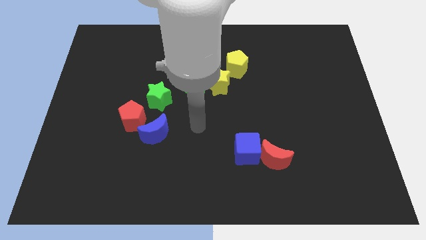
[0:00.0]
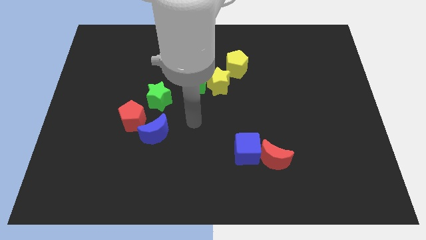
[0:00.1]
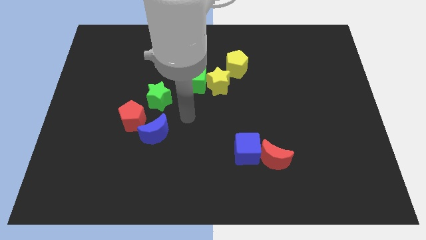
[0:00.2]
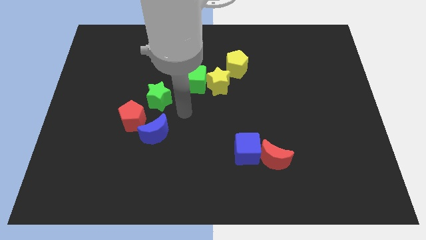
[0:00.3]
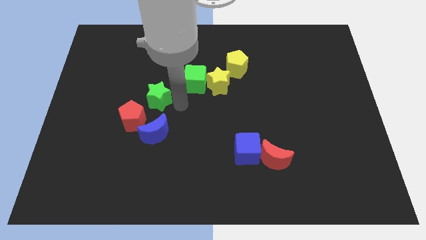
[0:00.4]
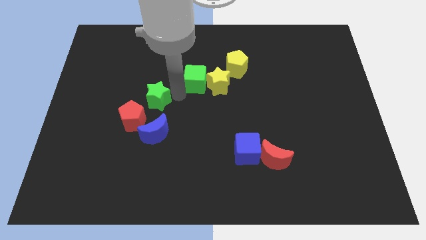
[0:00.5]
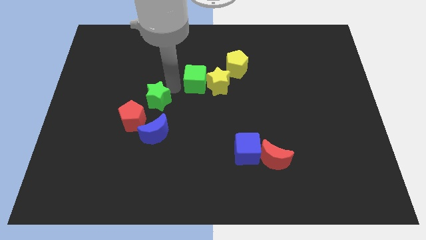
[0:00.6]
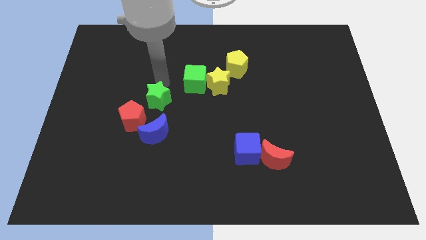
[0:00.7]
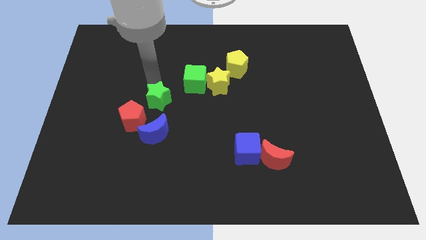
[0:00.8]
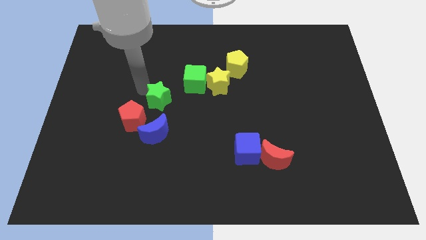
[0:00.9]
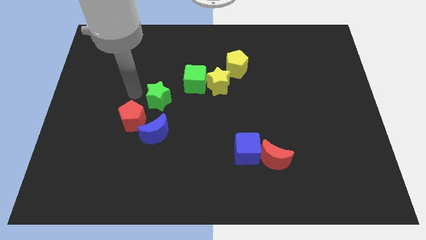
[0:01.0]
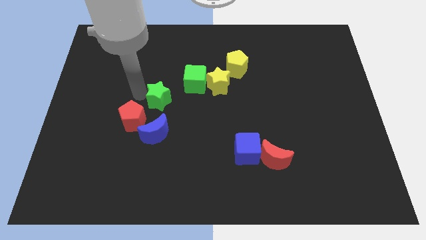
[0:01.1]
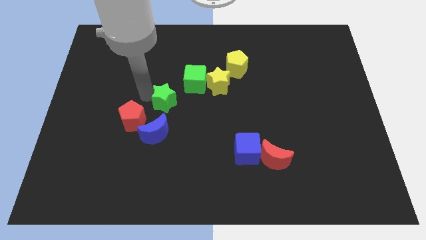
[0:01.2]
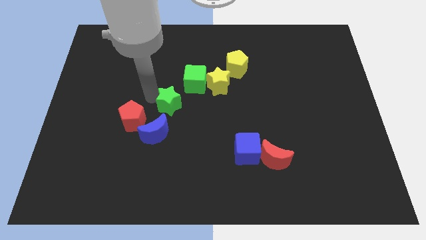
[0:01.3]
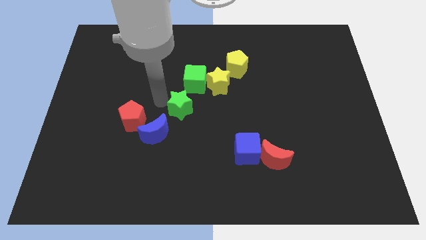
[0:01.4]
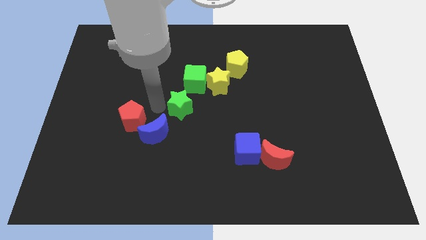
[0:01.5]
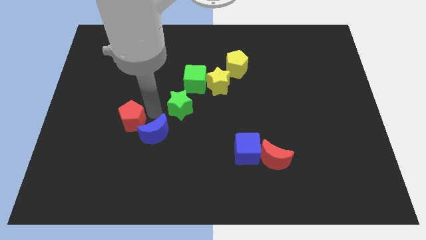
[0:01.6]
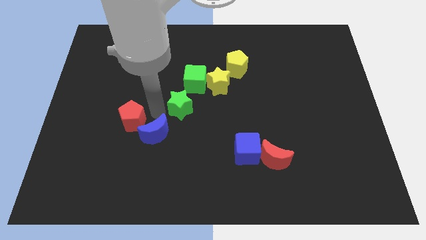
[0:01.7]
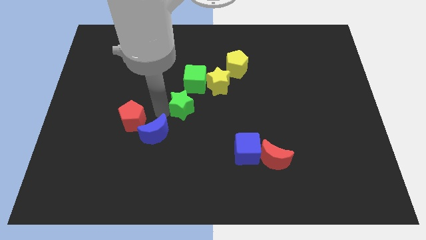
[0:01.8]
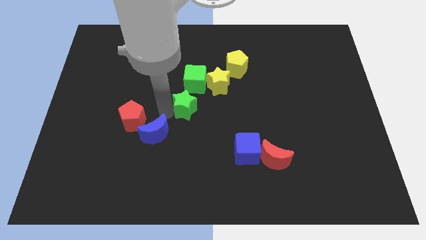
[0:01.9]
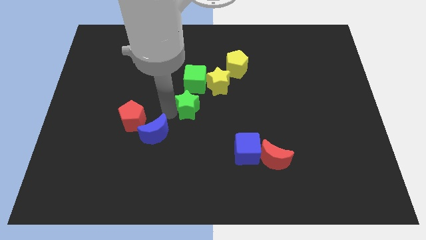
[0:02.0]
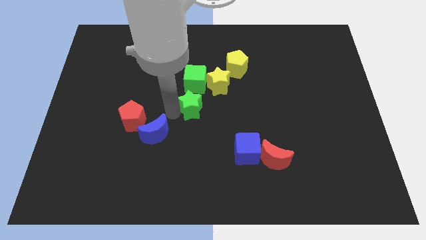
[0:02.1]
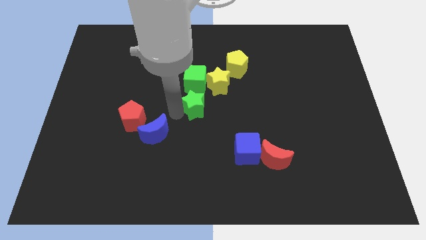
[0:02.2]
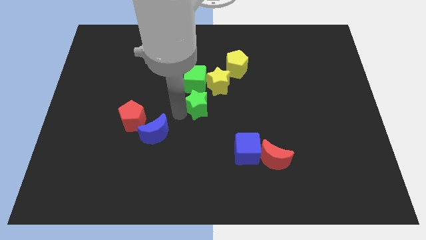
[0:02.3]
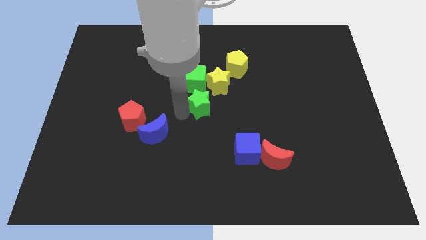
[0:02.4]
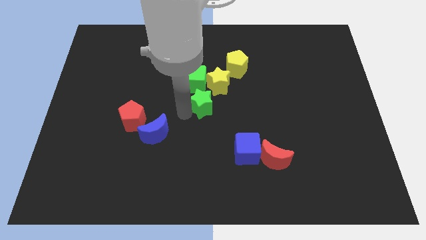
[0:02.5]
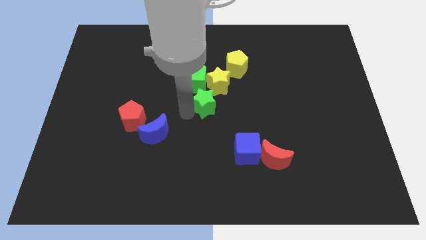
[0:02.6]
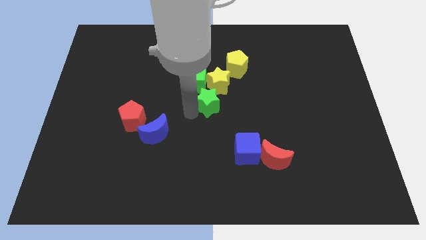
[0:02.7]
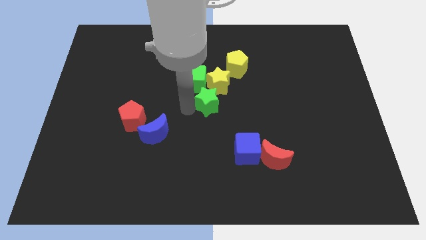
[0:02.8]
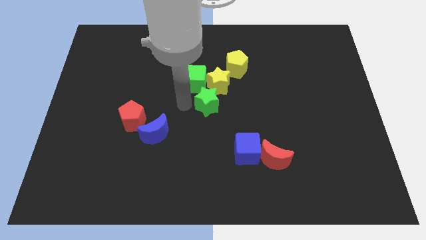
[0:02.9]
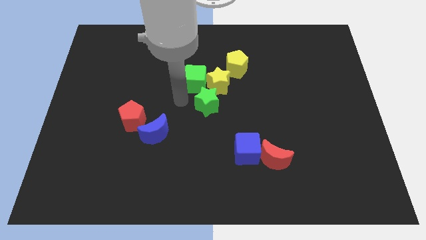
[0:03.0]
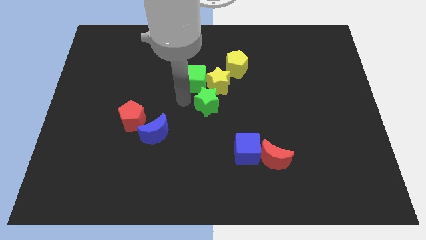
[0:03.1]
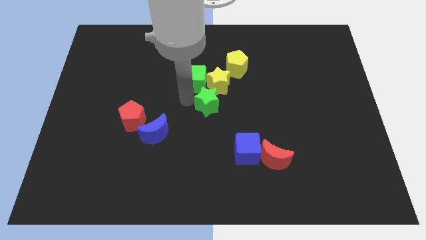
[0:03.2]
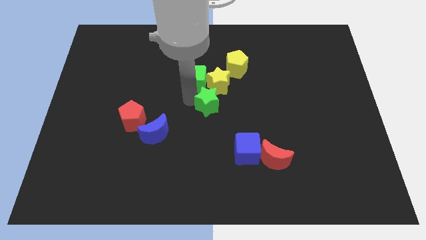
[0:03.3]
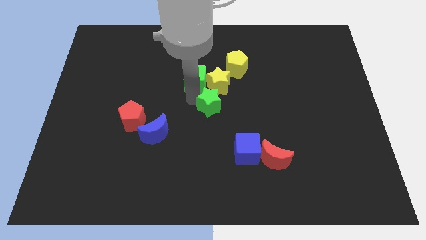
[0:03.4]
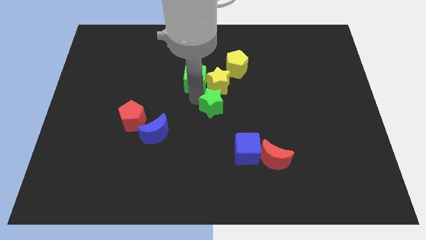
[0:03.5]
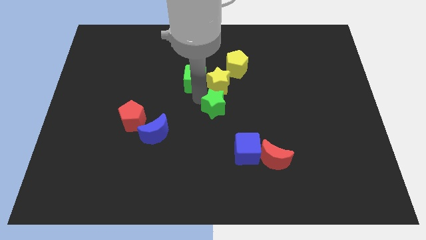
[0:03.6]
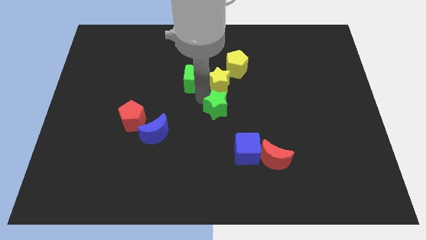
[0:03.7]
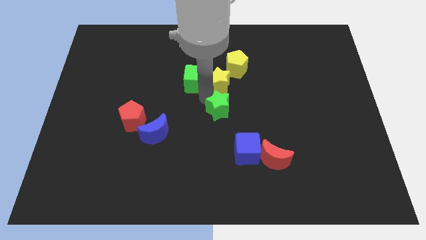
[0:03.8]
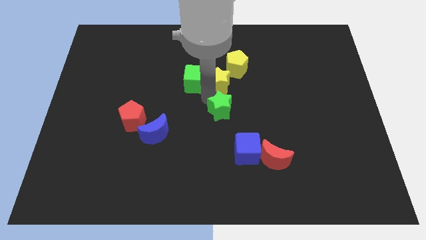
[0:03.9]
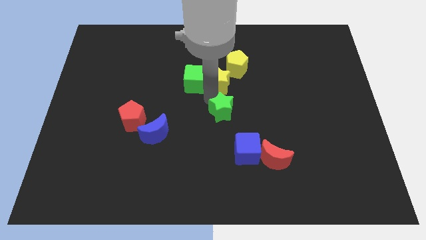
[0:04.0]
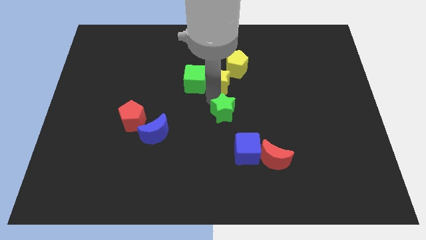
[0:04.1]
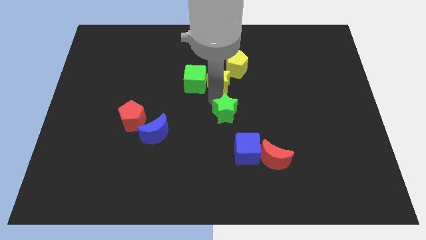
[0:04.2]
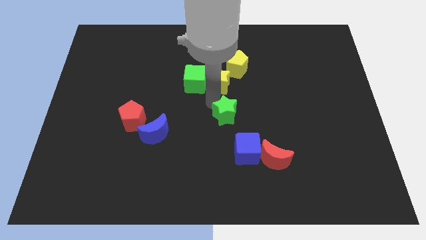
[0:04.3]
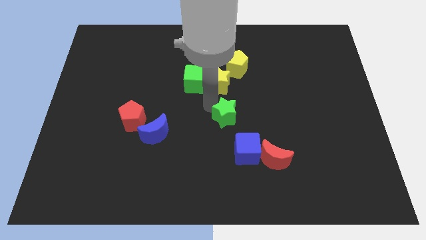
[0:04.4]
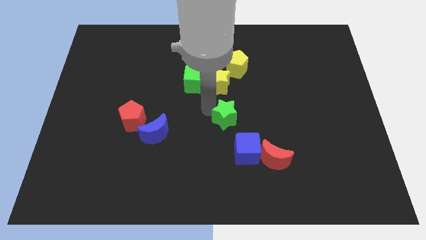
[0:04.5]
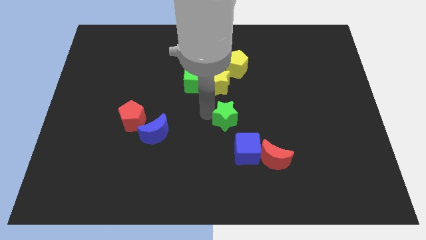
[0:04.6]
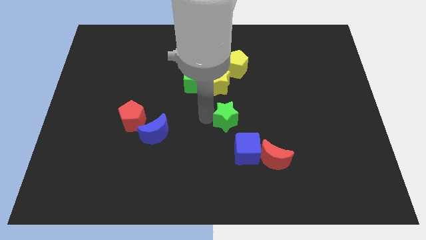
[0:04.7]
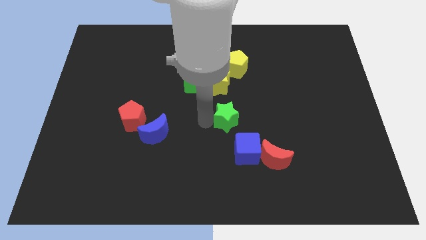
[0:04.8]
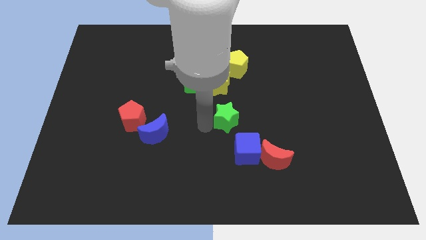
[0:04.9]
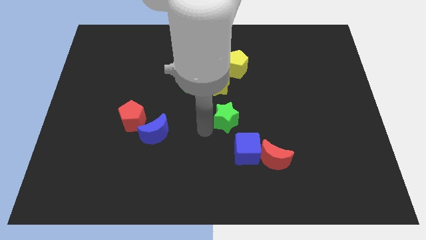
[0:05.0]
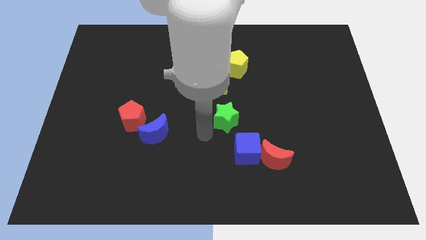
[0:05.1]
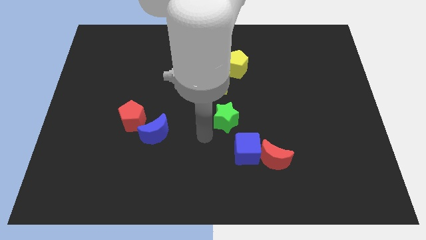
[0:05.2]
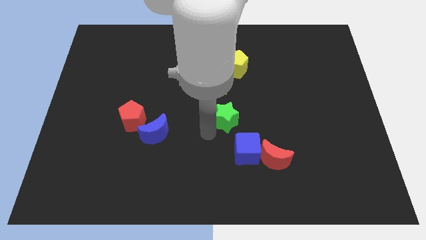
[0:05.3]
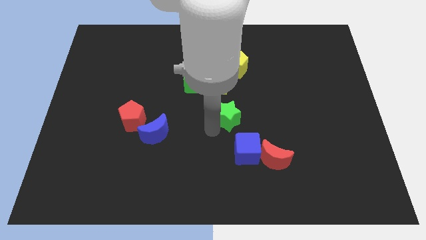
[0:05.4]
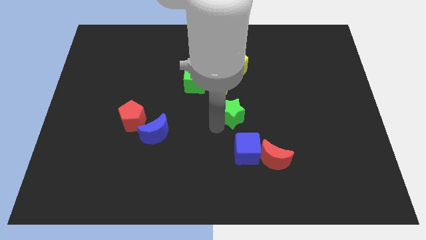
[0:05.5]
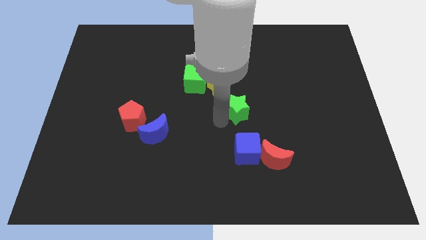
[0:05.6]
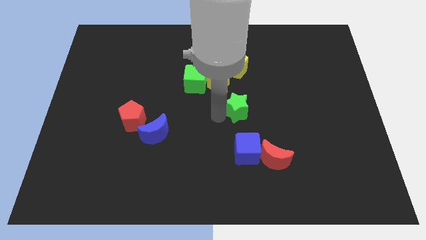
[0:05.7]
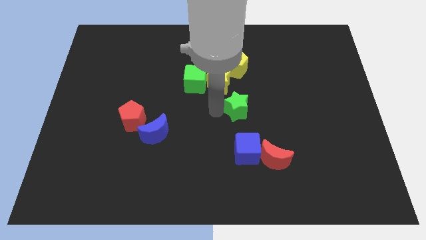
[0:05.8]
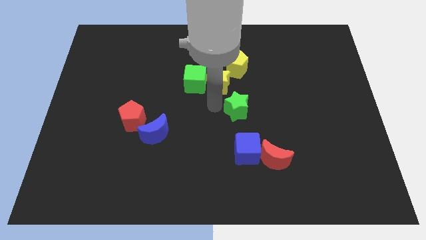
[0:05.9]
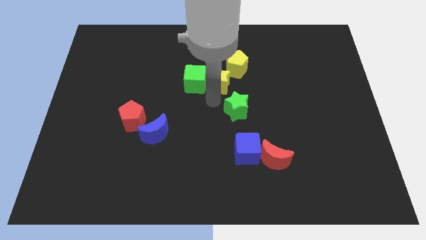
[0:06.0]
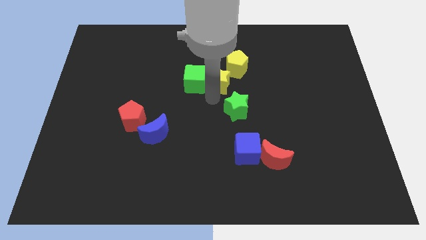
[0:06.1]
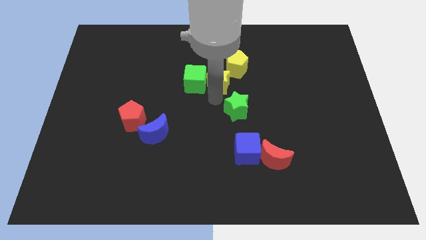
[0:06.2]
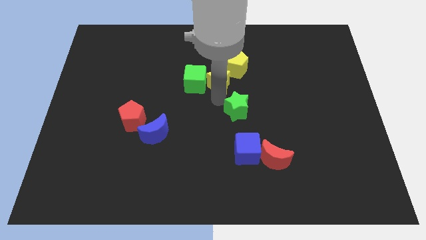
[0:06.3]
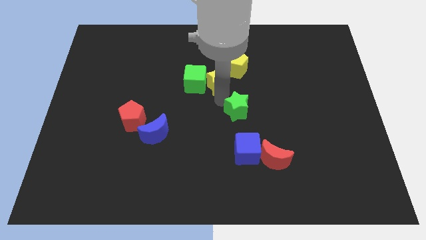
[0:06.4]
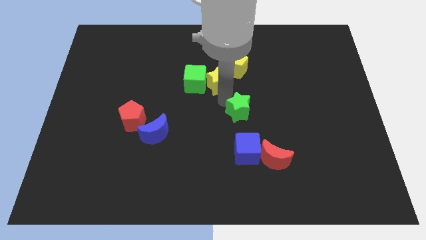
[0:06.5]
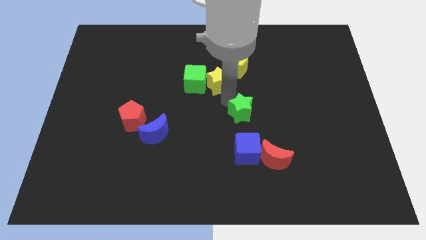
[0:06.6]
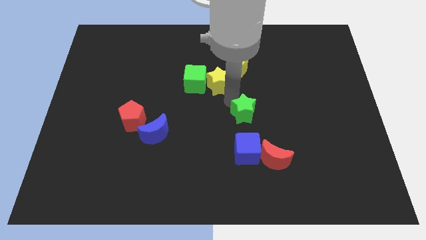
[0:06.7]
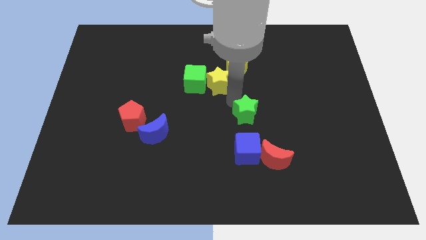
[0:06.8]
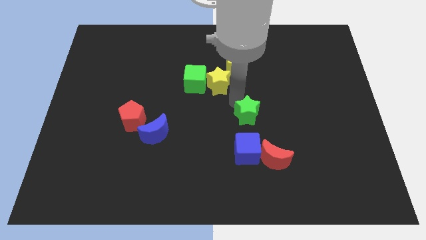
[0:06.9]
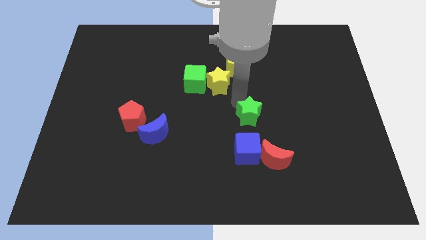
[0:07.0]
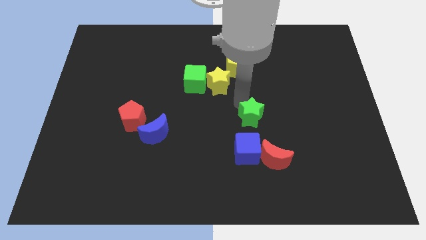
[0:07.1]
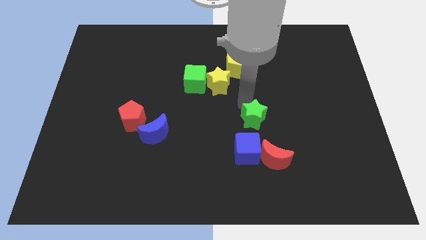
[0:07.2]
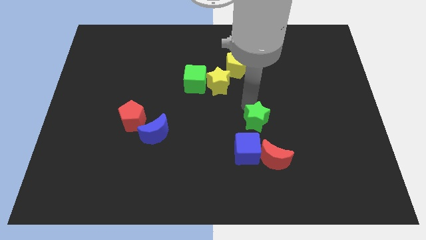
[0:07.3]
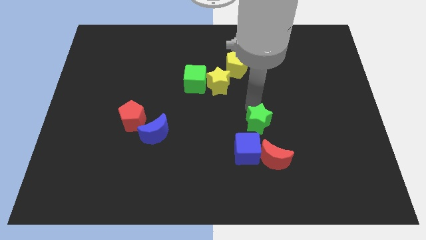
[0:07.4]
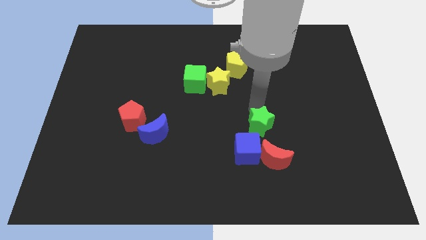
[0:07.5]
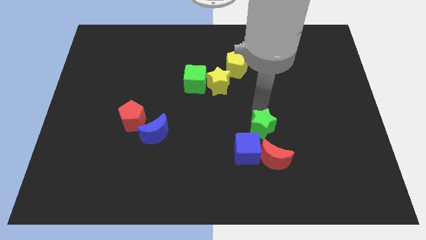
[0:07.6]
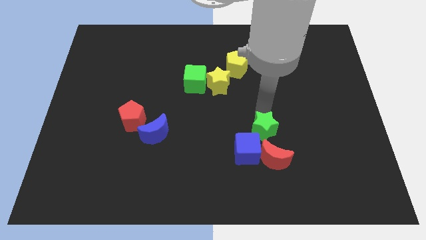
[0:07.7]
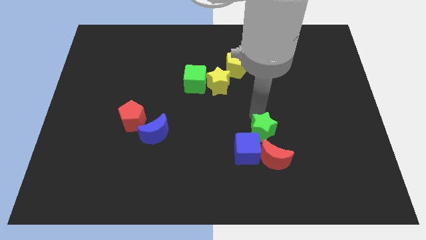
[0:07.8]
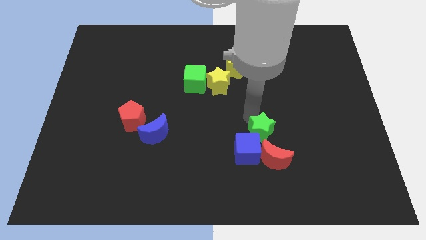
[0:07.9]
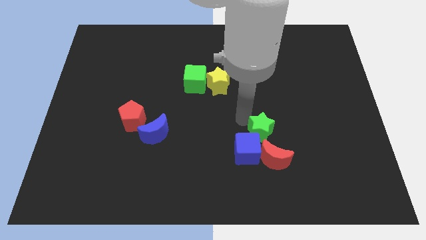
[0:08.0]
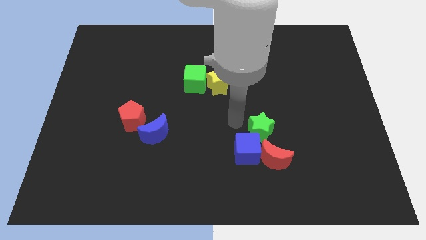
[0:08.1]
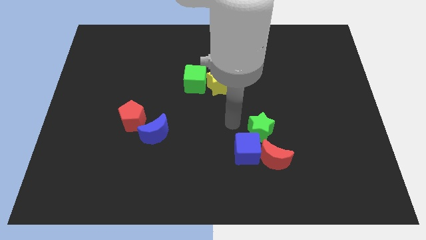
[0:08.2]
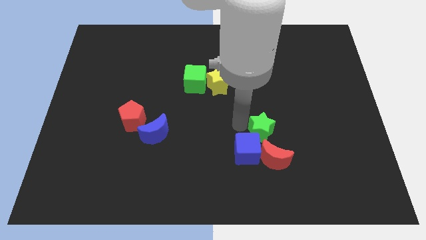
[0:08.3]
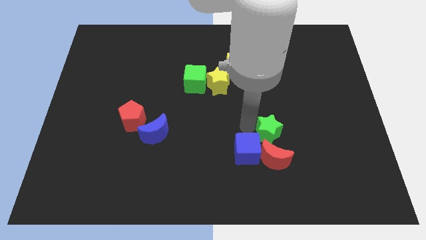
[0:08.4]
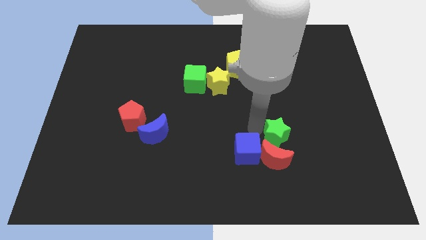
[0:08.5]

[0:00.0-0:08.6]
put the green star diagonally up and to the right of the red moon
